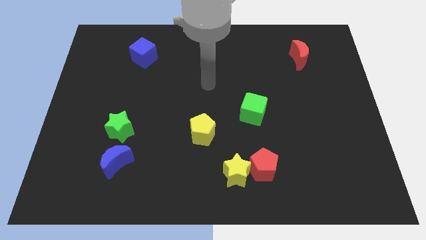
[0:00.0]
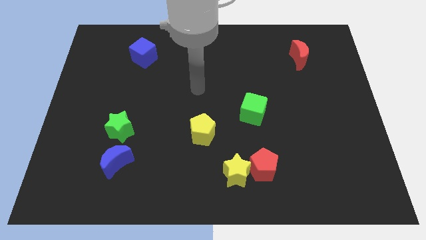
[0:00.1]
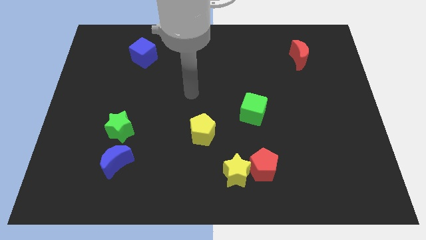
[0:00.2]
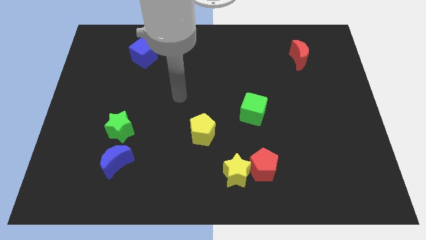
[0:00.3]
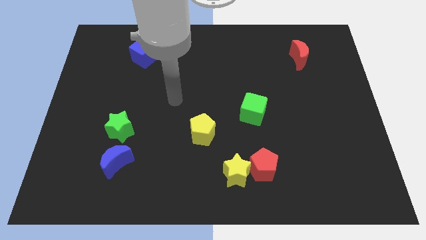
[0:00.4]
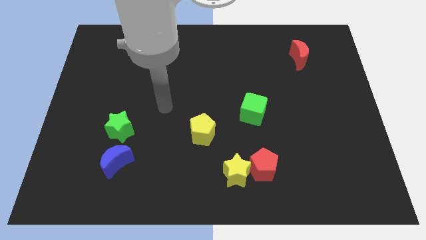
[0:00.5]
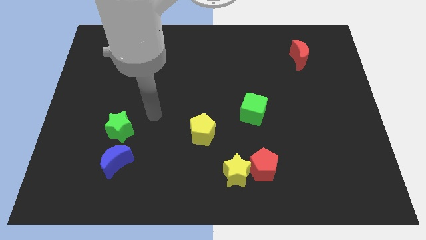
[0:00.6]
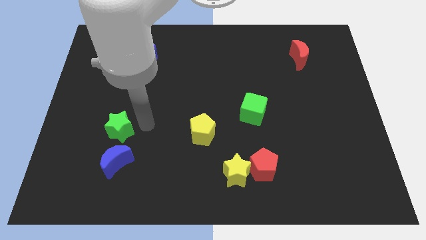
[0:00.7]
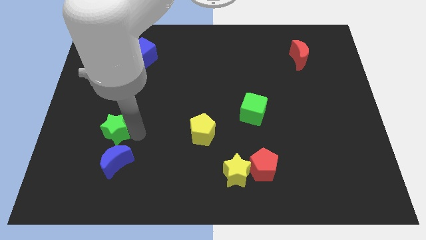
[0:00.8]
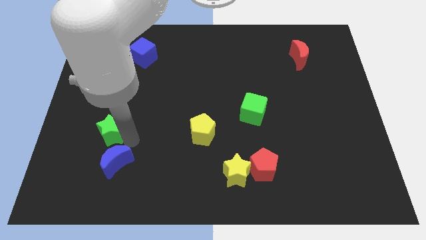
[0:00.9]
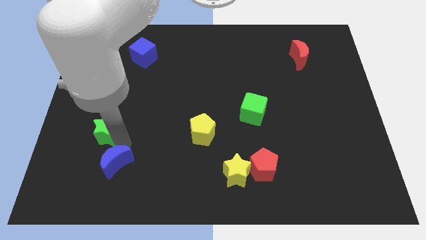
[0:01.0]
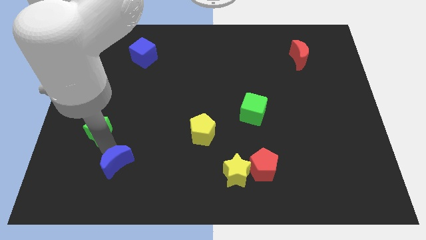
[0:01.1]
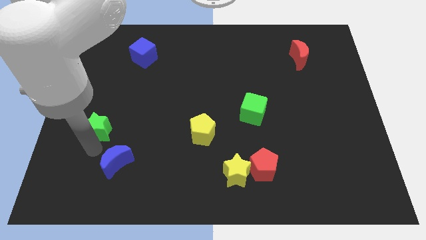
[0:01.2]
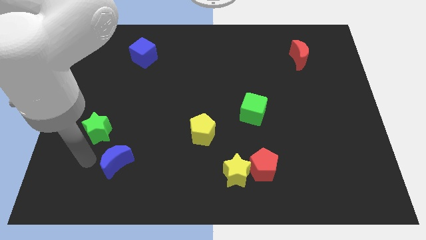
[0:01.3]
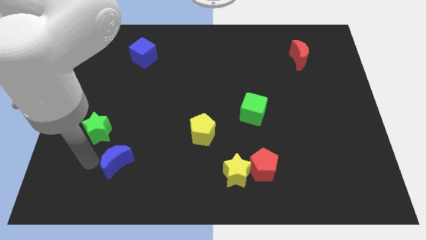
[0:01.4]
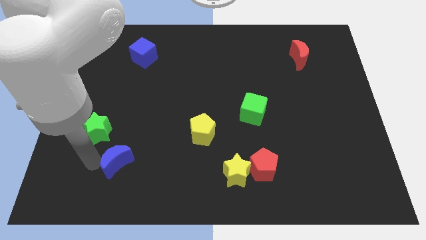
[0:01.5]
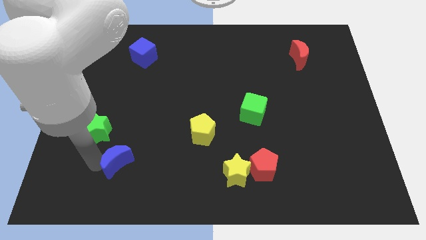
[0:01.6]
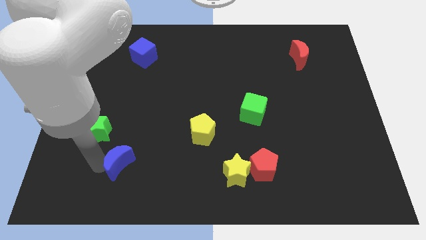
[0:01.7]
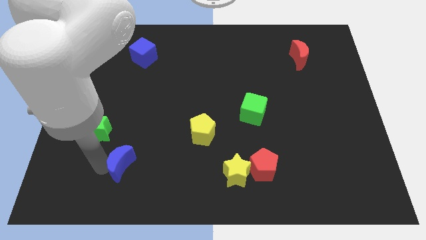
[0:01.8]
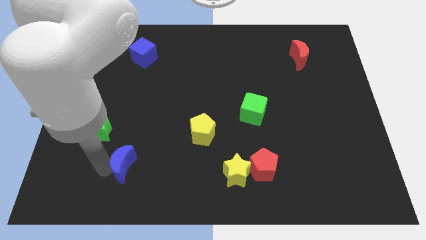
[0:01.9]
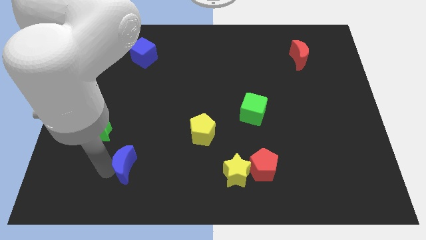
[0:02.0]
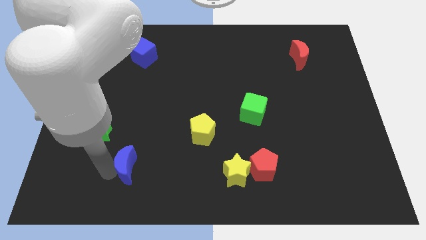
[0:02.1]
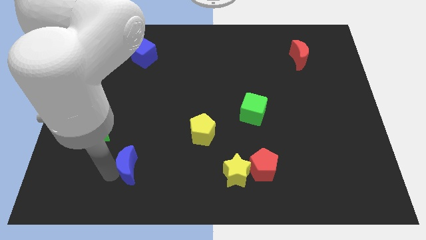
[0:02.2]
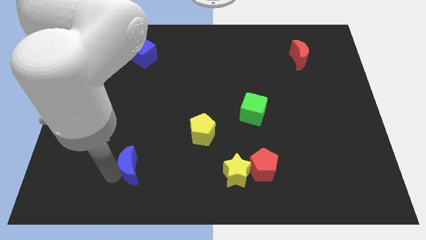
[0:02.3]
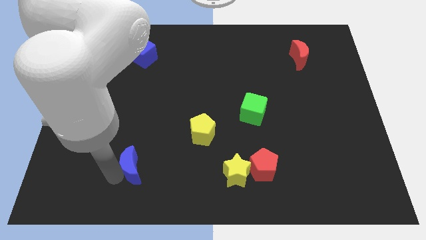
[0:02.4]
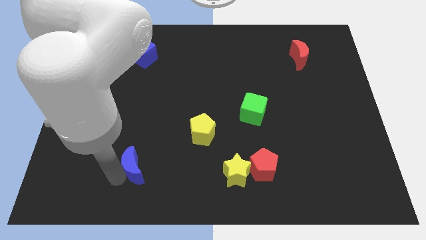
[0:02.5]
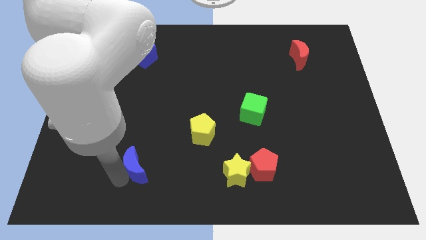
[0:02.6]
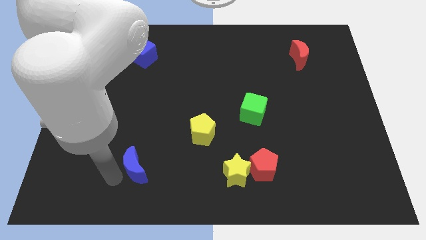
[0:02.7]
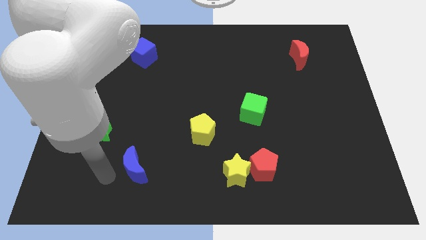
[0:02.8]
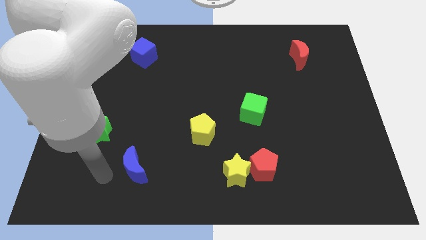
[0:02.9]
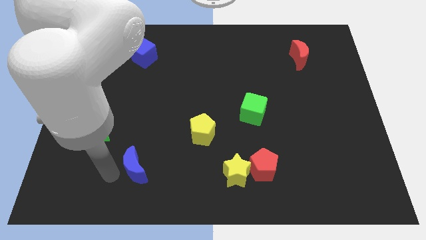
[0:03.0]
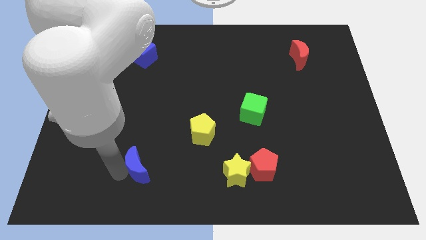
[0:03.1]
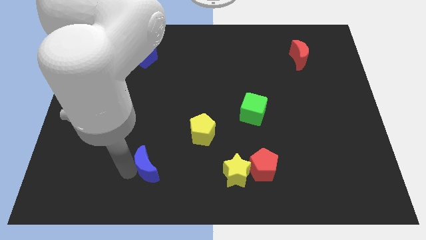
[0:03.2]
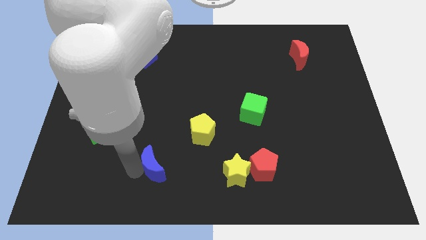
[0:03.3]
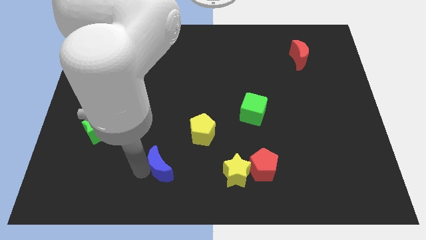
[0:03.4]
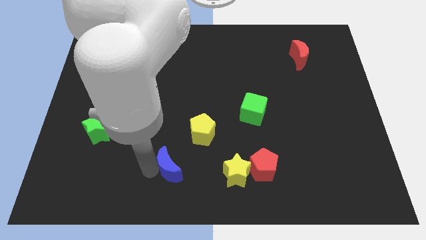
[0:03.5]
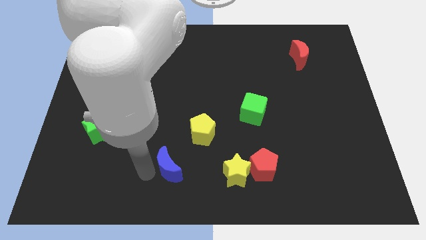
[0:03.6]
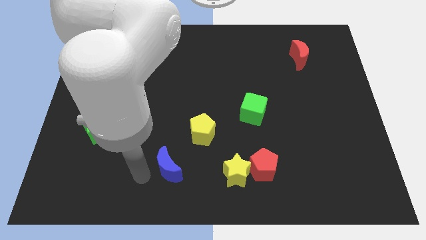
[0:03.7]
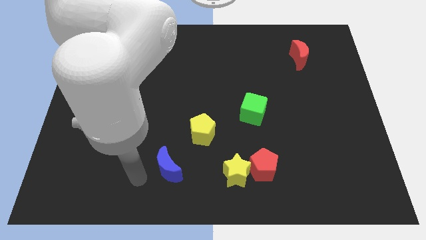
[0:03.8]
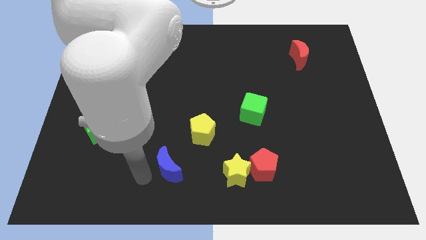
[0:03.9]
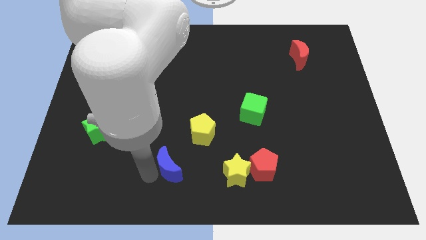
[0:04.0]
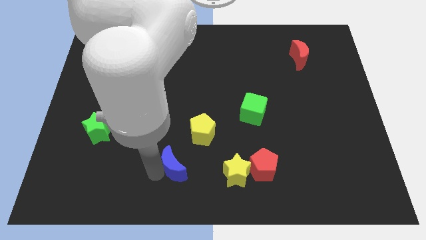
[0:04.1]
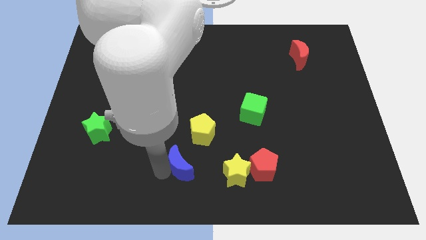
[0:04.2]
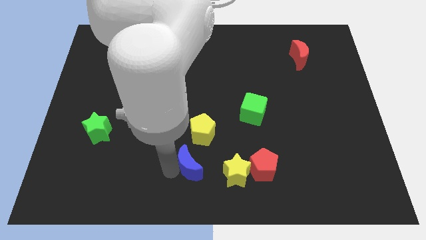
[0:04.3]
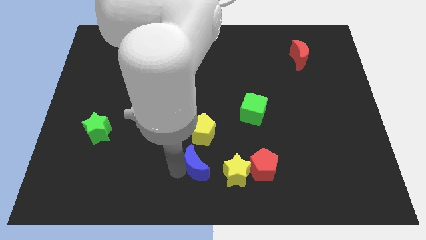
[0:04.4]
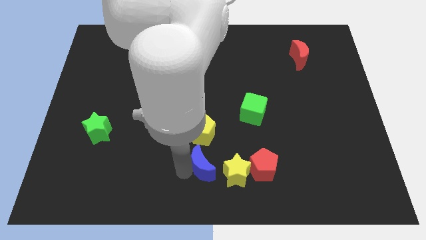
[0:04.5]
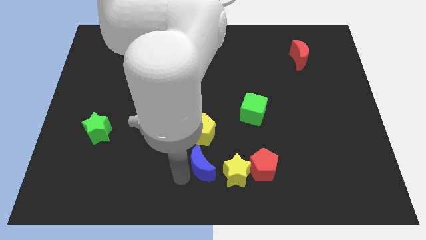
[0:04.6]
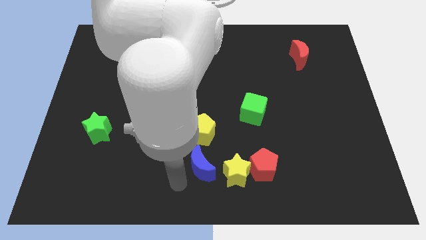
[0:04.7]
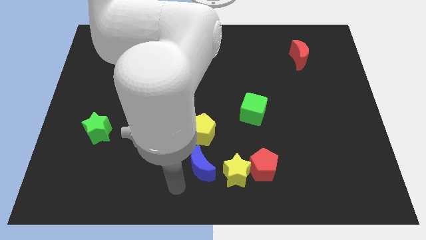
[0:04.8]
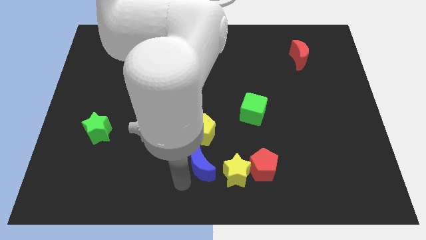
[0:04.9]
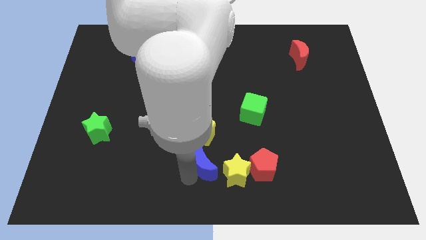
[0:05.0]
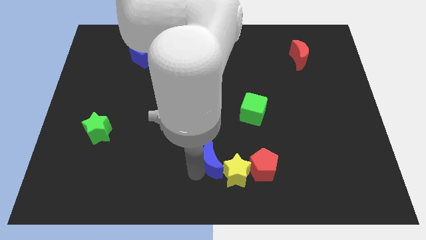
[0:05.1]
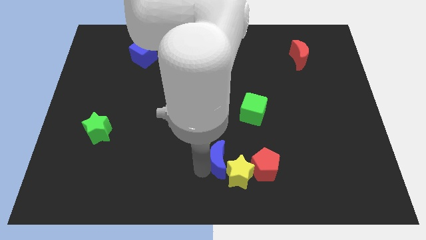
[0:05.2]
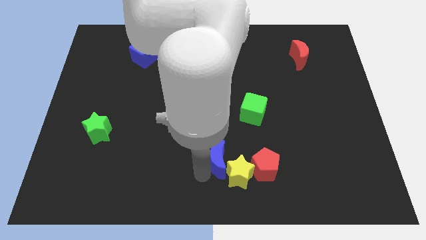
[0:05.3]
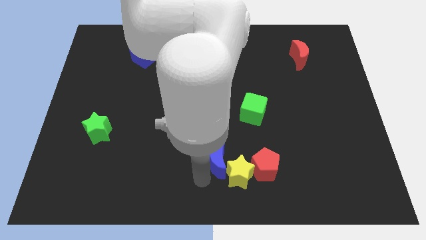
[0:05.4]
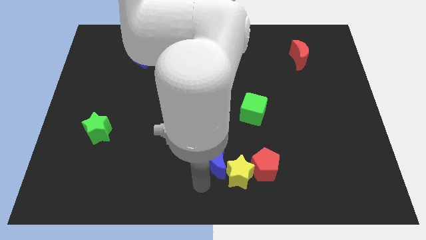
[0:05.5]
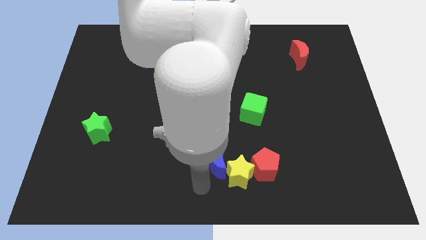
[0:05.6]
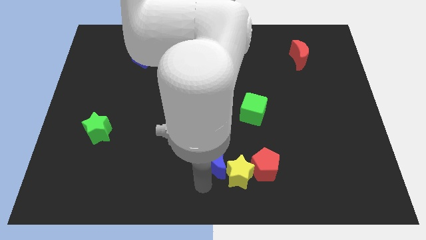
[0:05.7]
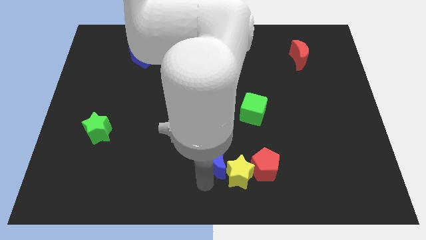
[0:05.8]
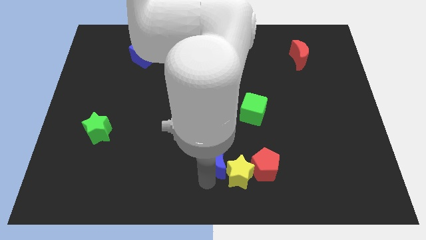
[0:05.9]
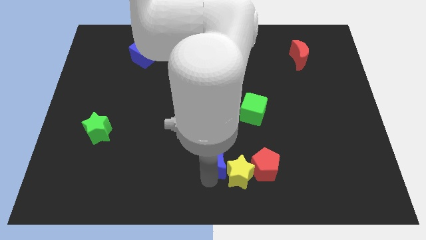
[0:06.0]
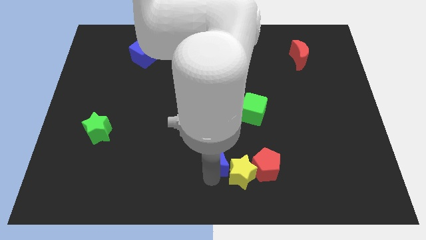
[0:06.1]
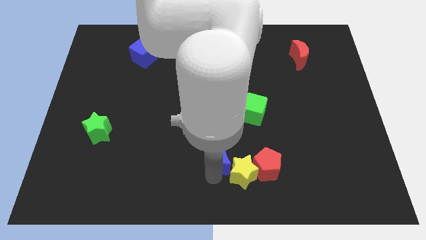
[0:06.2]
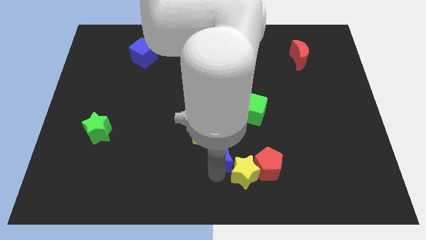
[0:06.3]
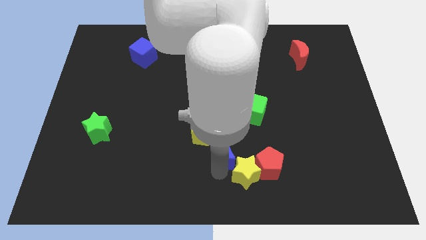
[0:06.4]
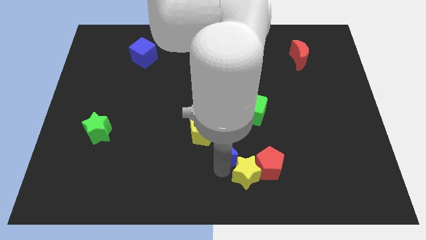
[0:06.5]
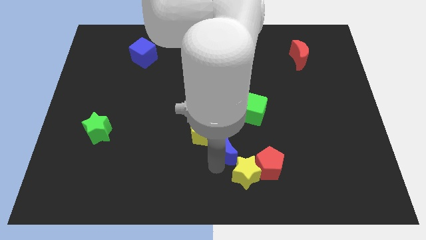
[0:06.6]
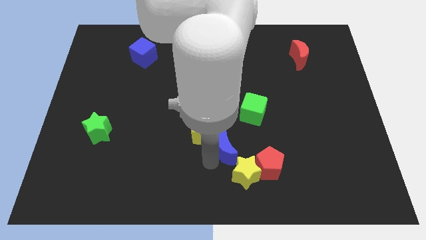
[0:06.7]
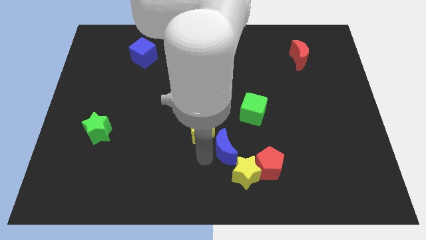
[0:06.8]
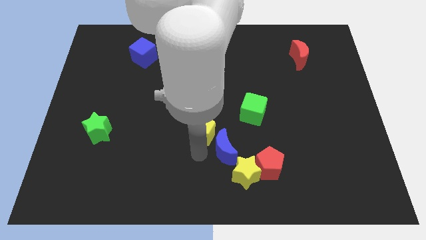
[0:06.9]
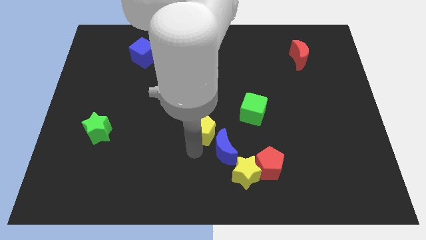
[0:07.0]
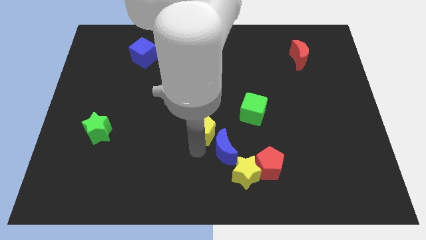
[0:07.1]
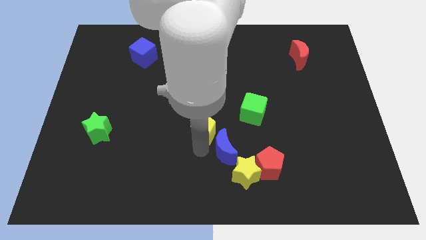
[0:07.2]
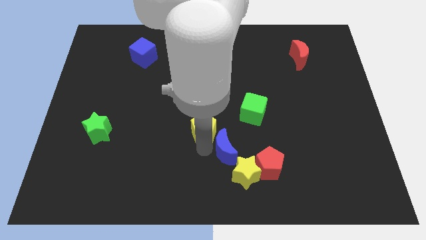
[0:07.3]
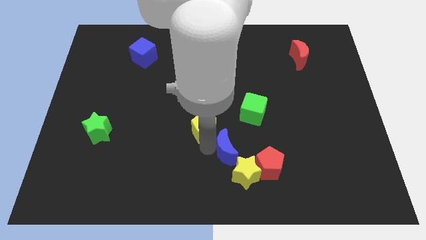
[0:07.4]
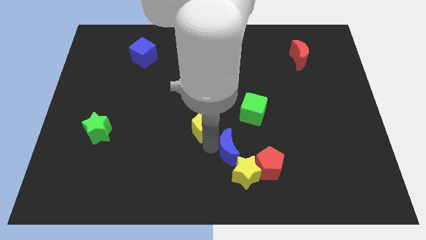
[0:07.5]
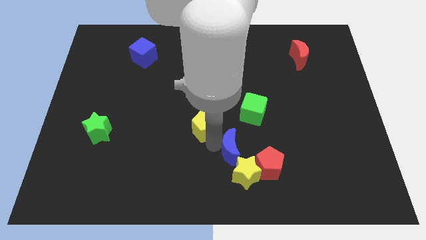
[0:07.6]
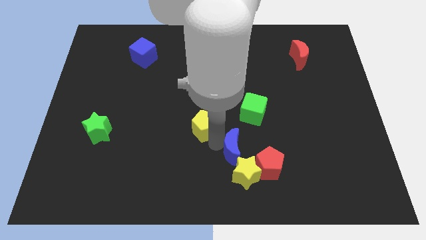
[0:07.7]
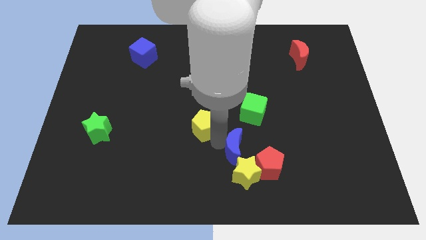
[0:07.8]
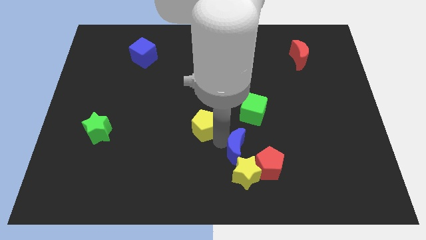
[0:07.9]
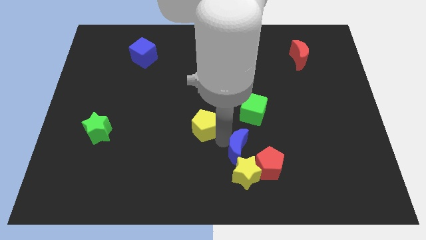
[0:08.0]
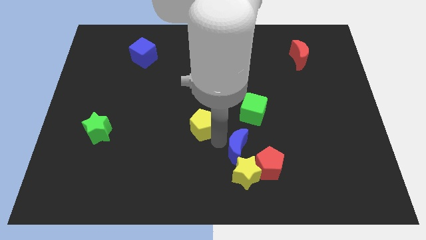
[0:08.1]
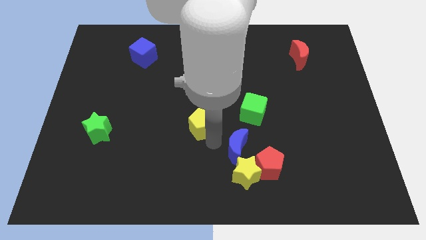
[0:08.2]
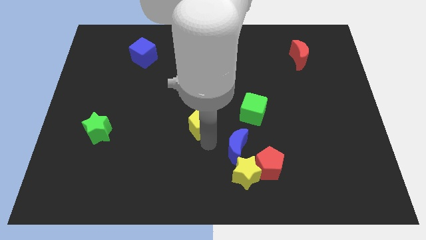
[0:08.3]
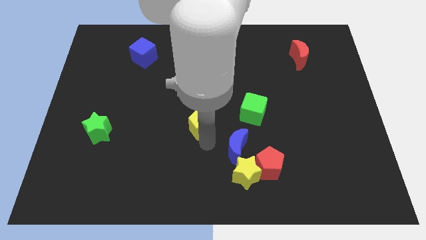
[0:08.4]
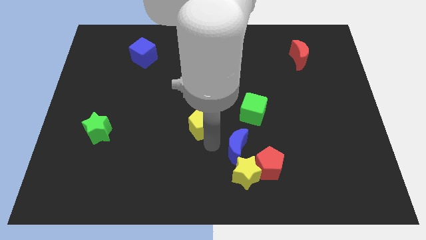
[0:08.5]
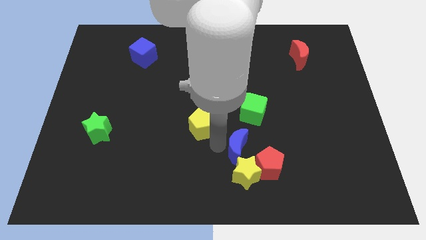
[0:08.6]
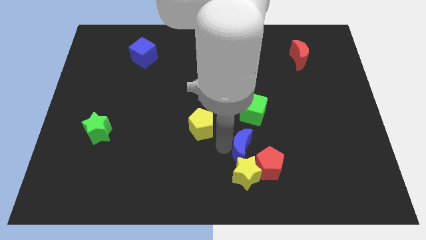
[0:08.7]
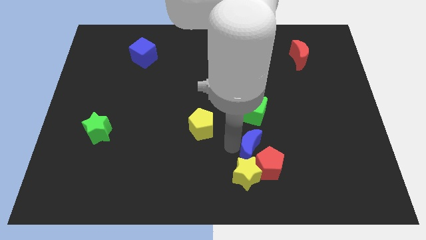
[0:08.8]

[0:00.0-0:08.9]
put the blue moon next to the red pentagon
